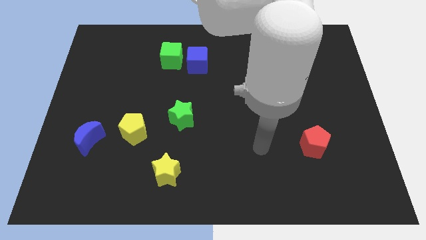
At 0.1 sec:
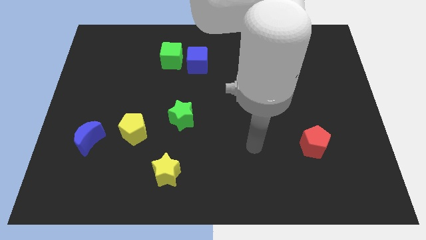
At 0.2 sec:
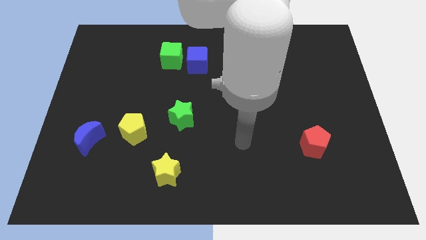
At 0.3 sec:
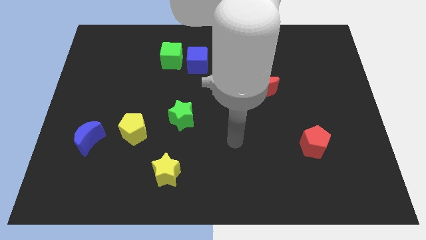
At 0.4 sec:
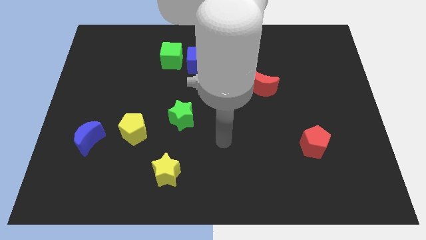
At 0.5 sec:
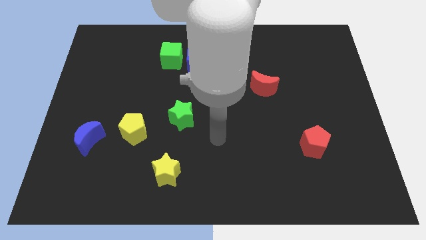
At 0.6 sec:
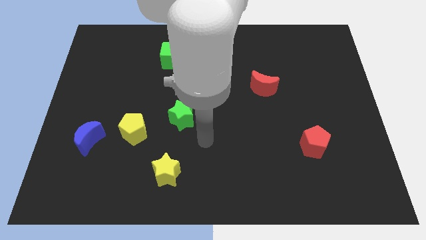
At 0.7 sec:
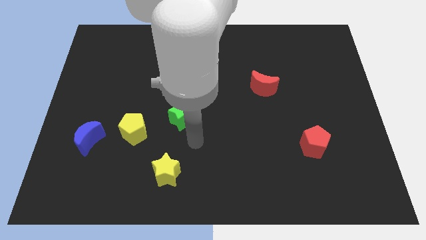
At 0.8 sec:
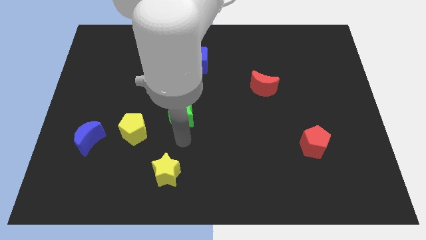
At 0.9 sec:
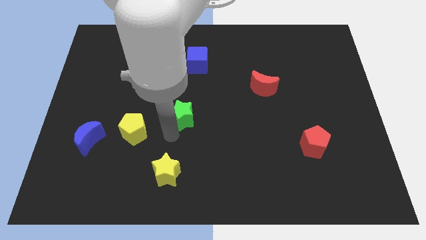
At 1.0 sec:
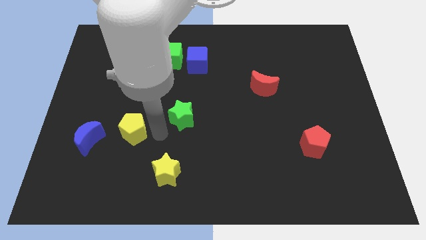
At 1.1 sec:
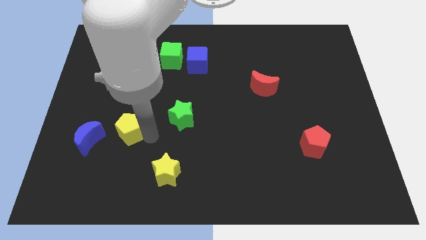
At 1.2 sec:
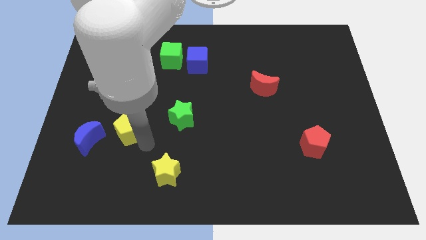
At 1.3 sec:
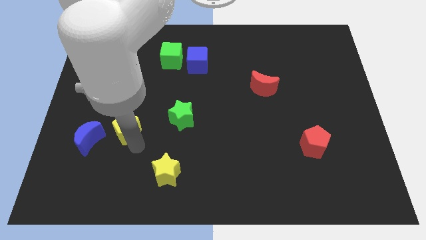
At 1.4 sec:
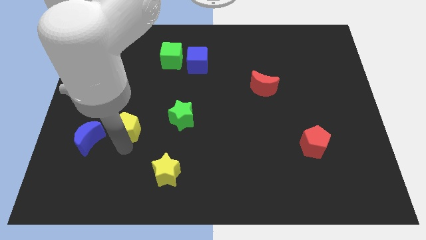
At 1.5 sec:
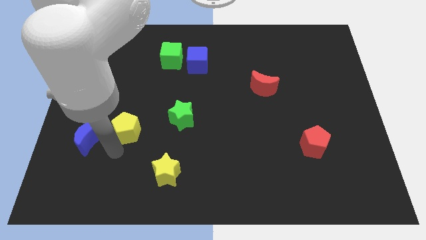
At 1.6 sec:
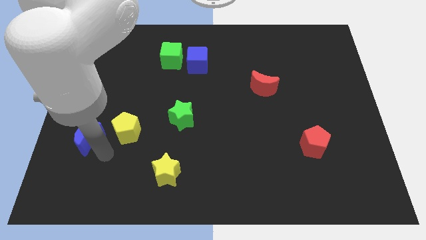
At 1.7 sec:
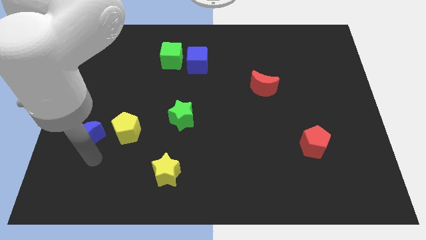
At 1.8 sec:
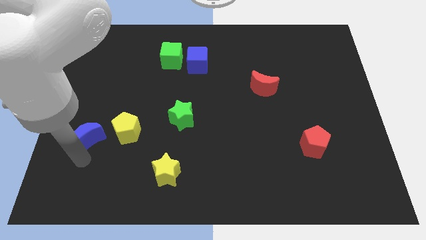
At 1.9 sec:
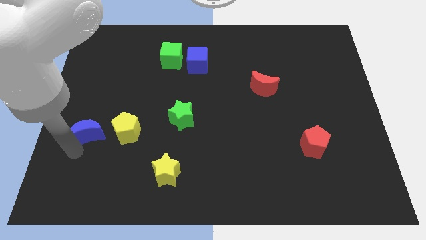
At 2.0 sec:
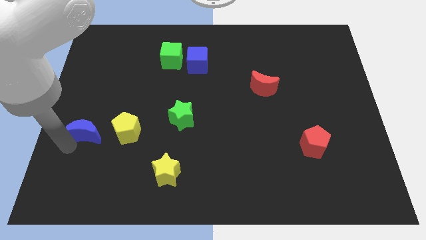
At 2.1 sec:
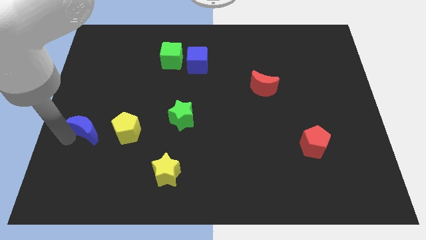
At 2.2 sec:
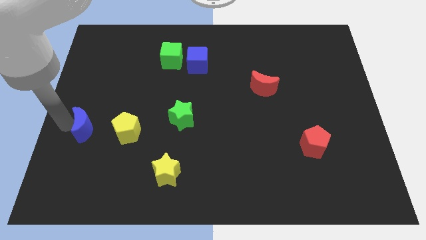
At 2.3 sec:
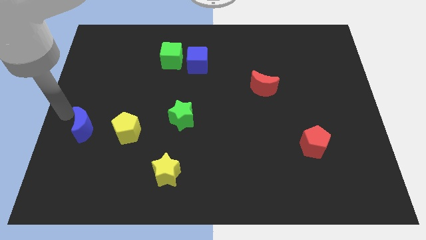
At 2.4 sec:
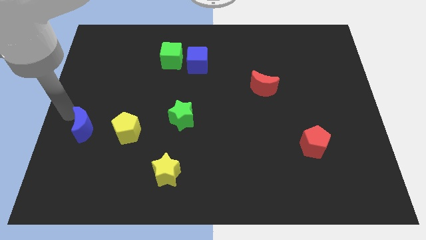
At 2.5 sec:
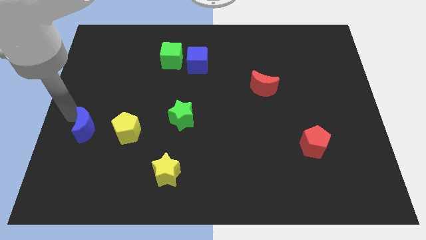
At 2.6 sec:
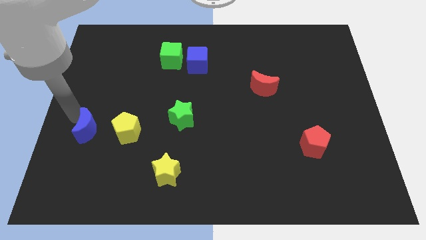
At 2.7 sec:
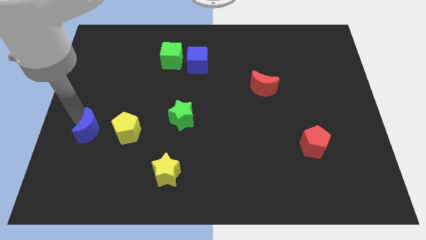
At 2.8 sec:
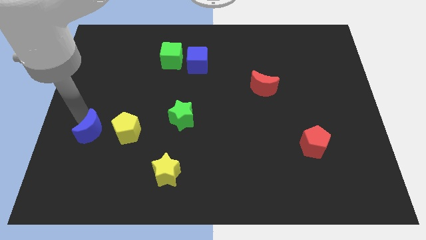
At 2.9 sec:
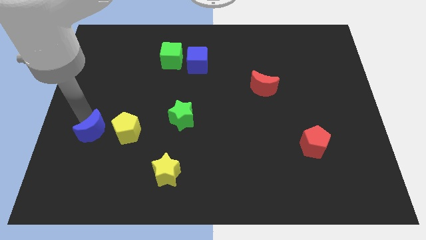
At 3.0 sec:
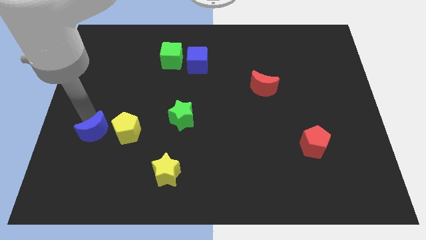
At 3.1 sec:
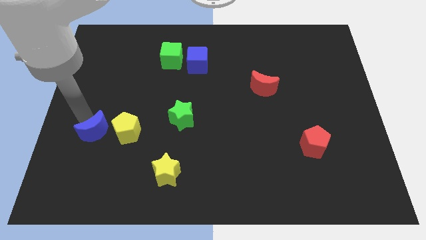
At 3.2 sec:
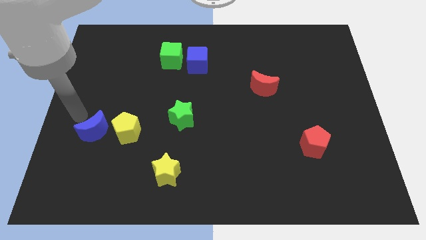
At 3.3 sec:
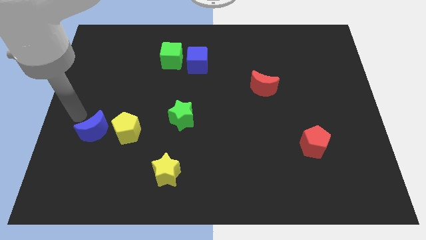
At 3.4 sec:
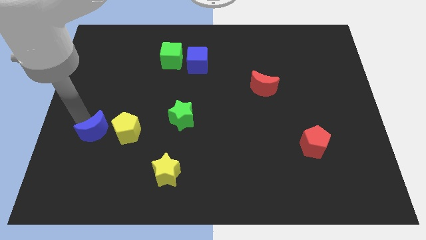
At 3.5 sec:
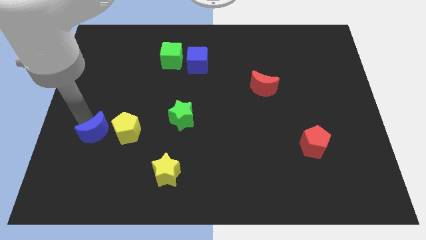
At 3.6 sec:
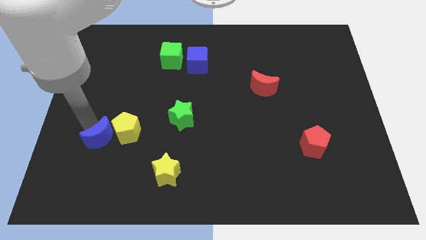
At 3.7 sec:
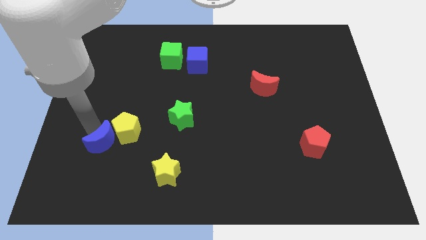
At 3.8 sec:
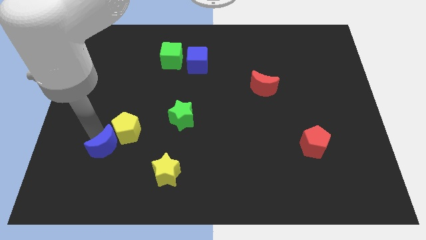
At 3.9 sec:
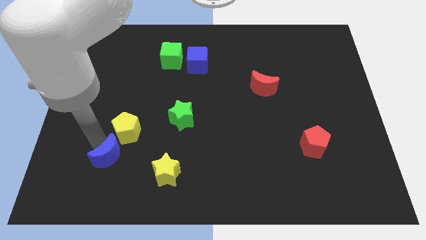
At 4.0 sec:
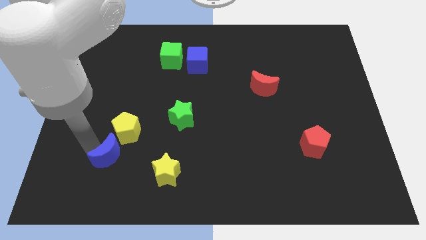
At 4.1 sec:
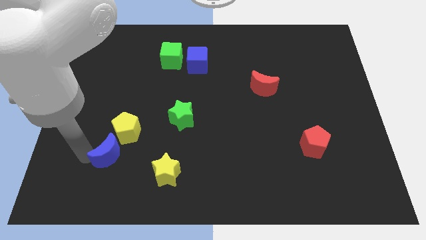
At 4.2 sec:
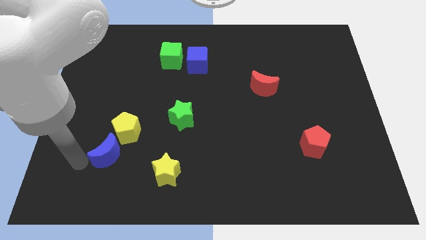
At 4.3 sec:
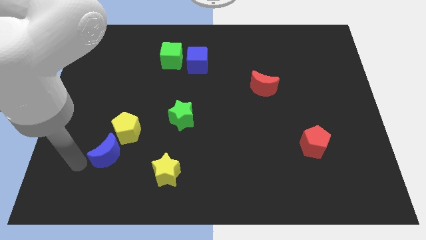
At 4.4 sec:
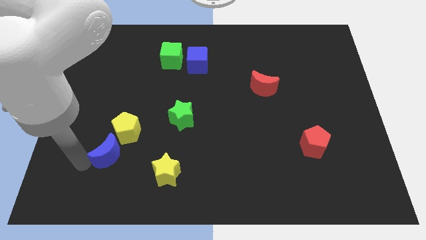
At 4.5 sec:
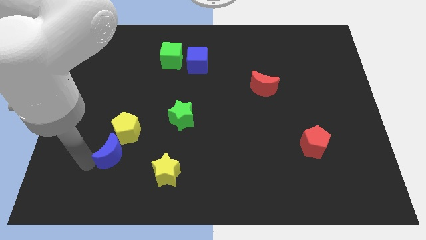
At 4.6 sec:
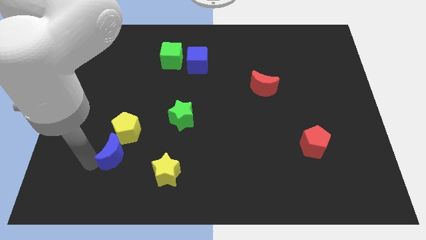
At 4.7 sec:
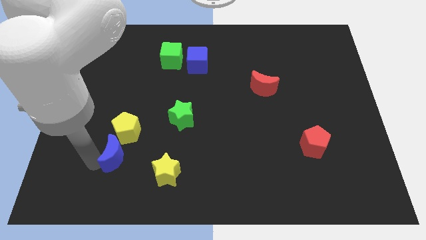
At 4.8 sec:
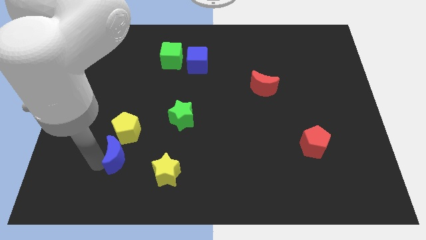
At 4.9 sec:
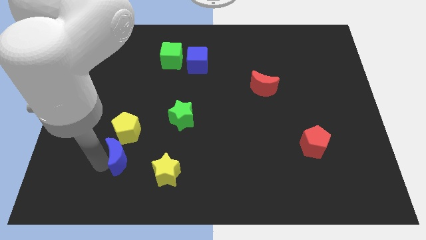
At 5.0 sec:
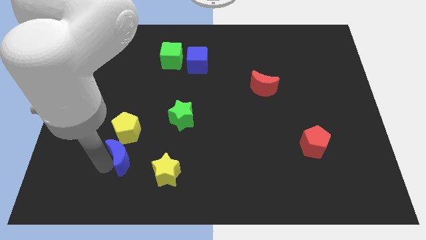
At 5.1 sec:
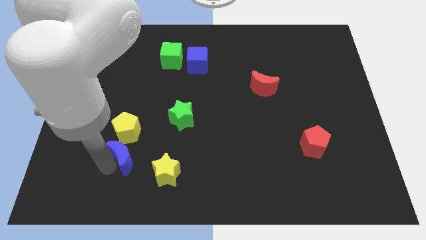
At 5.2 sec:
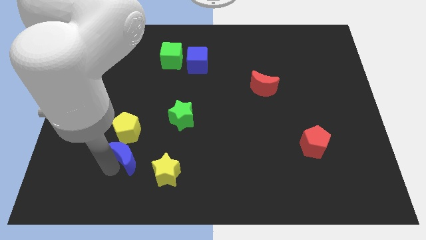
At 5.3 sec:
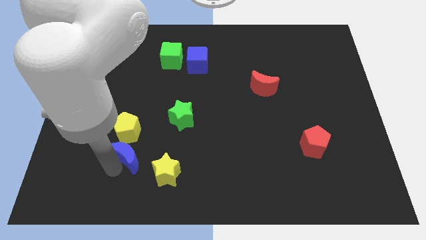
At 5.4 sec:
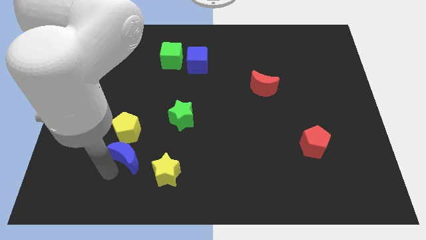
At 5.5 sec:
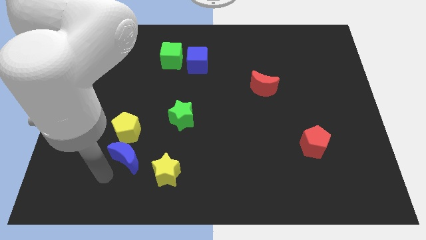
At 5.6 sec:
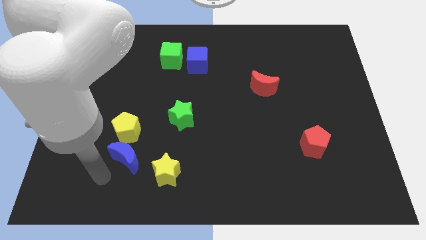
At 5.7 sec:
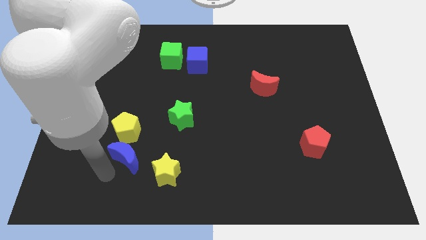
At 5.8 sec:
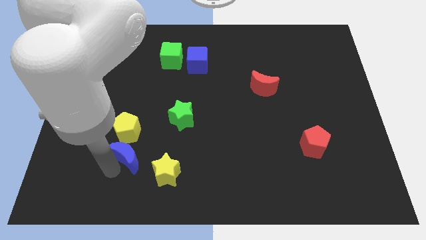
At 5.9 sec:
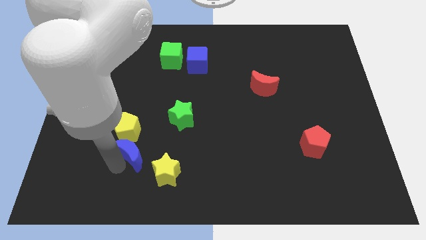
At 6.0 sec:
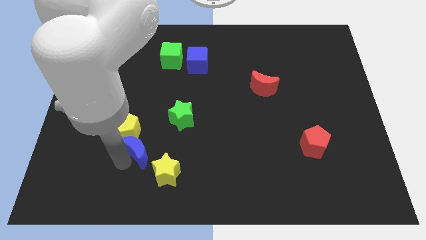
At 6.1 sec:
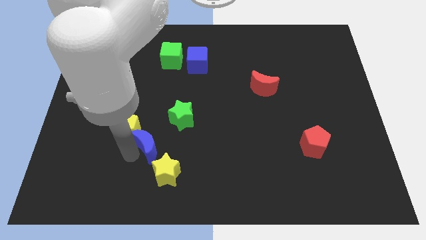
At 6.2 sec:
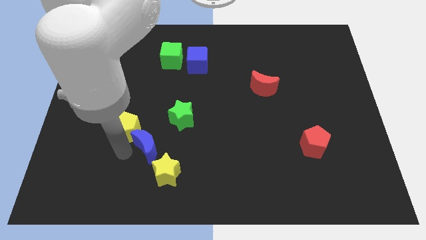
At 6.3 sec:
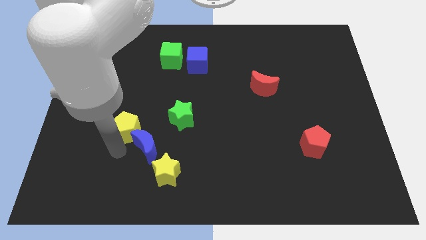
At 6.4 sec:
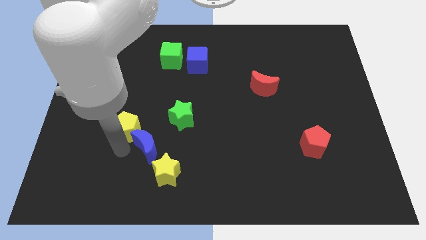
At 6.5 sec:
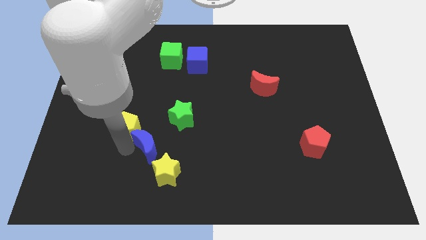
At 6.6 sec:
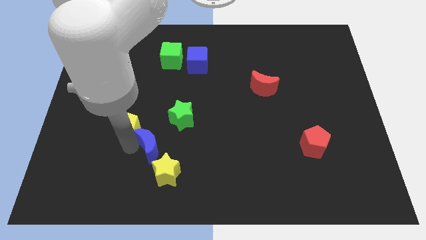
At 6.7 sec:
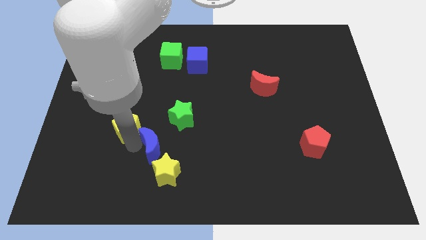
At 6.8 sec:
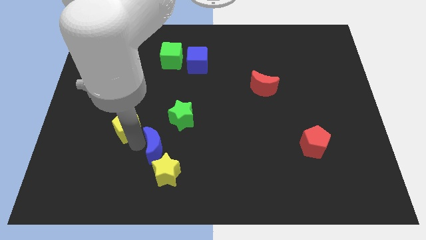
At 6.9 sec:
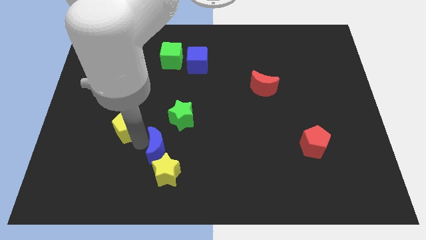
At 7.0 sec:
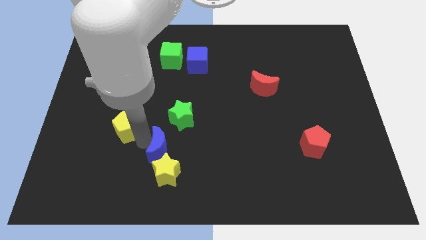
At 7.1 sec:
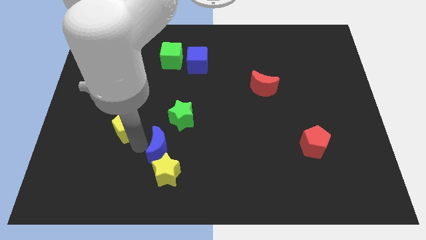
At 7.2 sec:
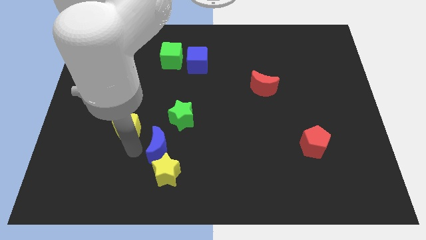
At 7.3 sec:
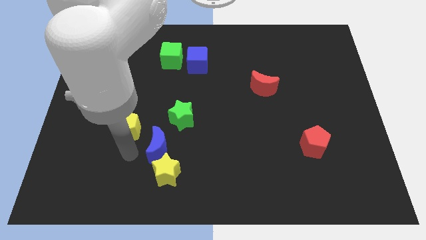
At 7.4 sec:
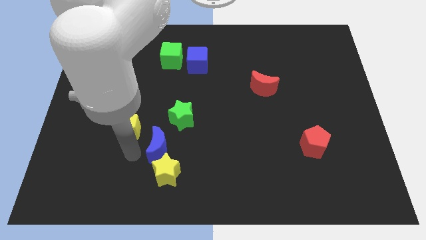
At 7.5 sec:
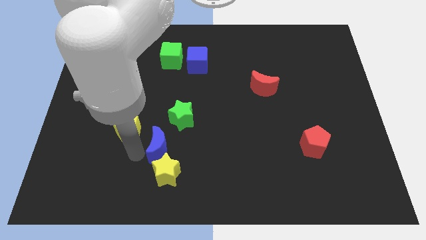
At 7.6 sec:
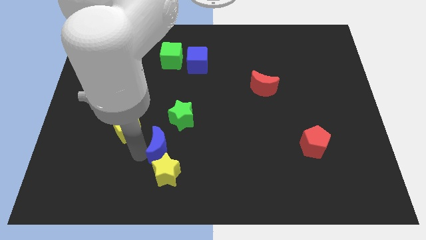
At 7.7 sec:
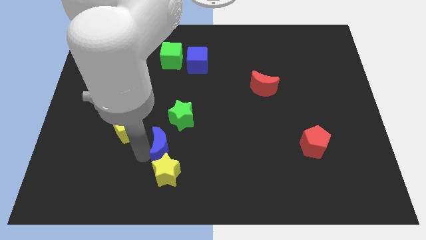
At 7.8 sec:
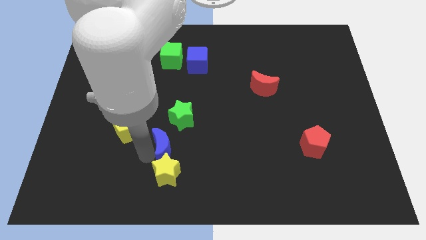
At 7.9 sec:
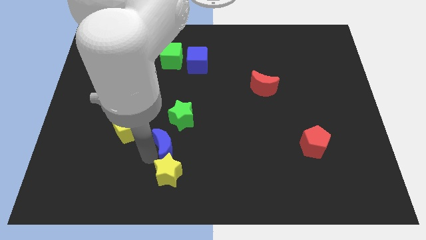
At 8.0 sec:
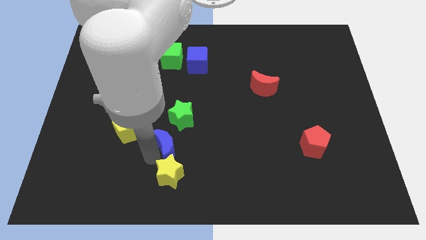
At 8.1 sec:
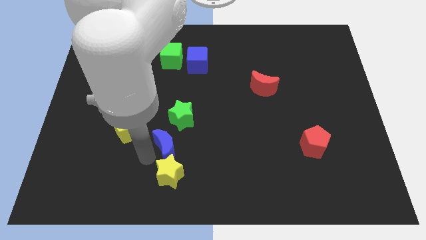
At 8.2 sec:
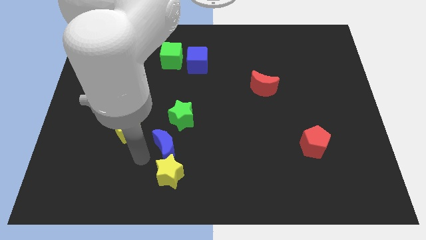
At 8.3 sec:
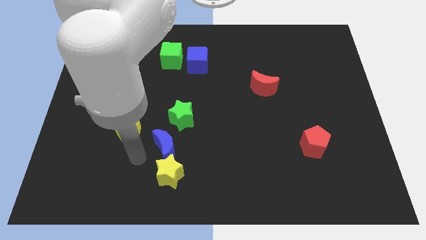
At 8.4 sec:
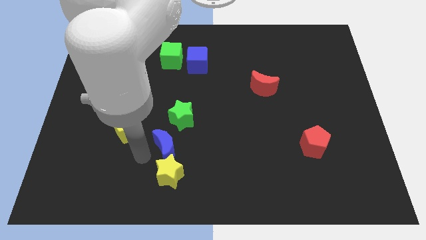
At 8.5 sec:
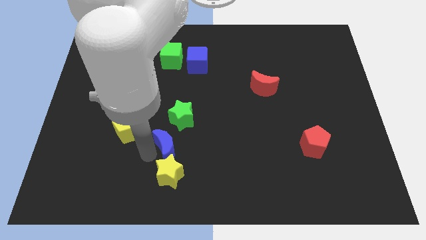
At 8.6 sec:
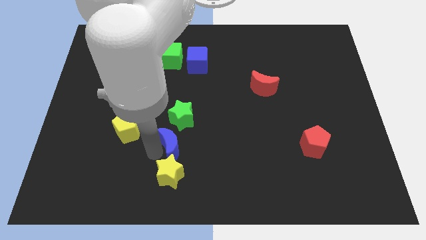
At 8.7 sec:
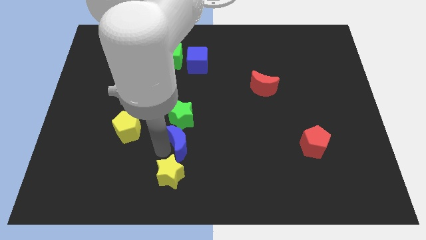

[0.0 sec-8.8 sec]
move the blue moon diagonally down and to the right of the green star
